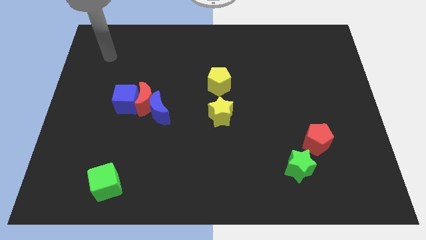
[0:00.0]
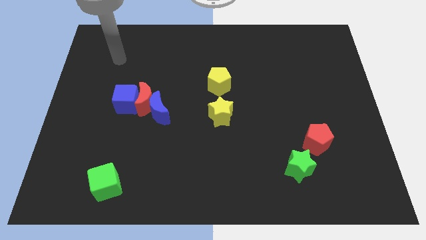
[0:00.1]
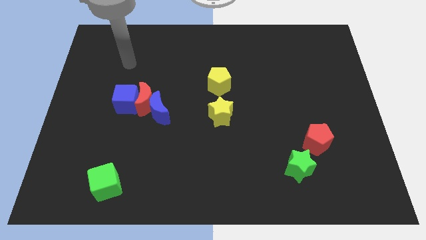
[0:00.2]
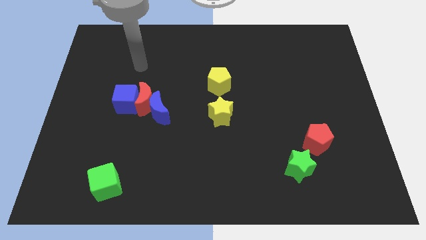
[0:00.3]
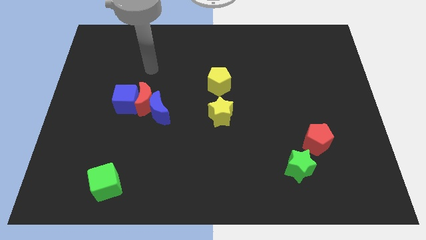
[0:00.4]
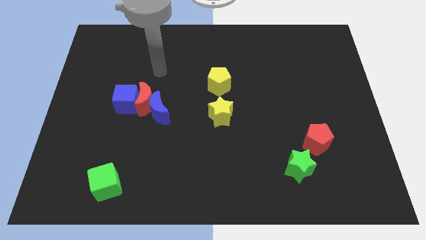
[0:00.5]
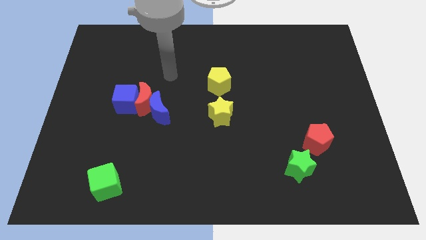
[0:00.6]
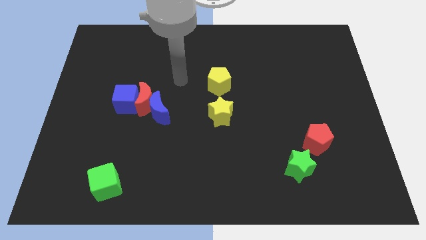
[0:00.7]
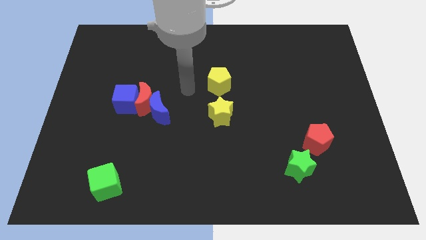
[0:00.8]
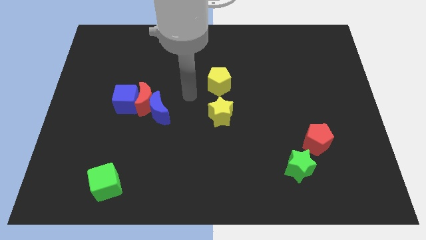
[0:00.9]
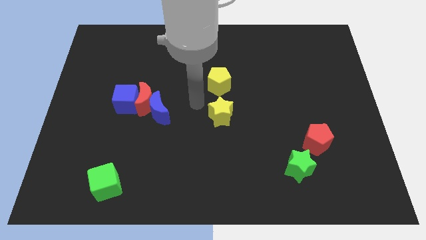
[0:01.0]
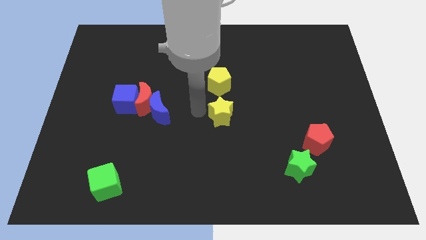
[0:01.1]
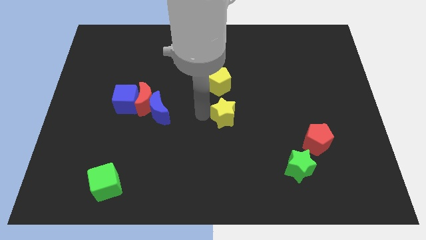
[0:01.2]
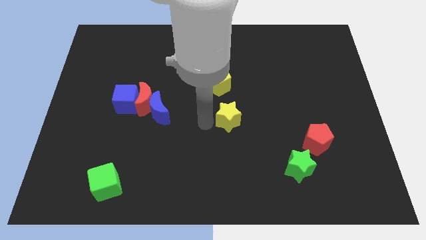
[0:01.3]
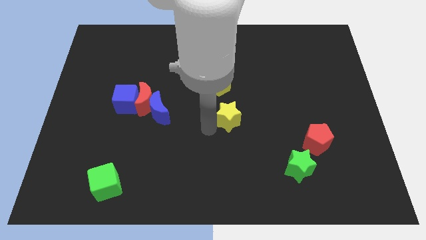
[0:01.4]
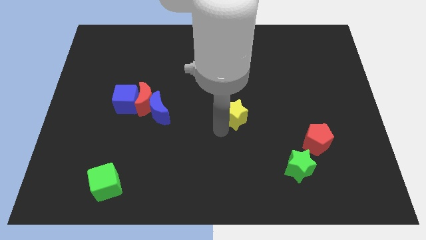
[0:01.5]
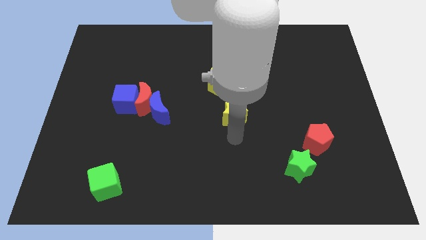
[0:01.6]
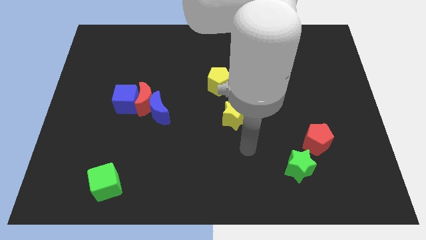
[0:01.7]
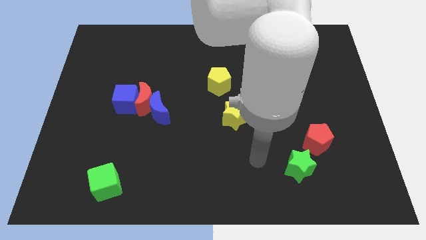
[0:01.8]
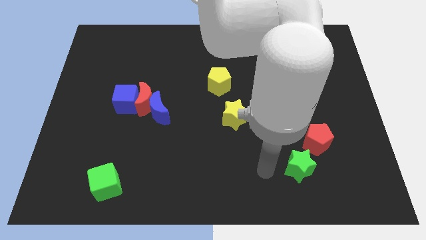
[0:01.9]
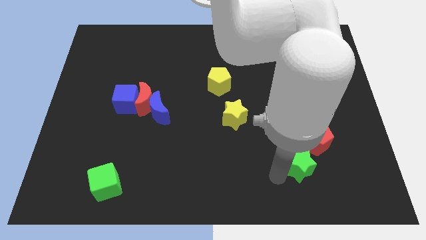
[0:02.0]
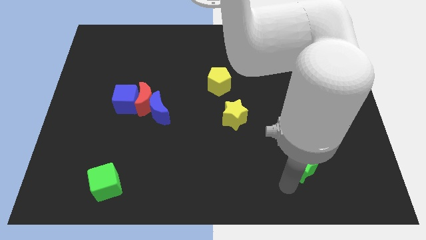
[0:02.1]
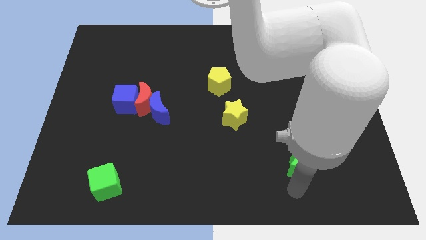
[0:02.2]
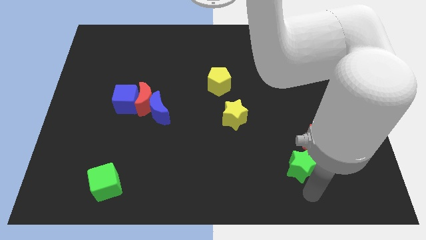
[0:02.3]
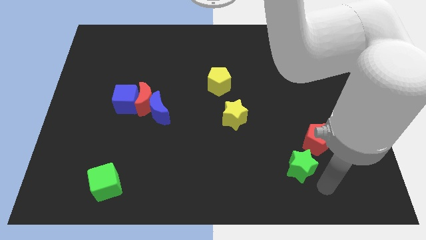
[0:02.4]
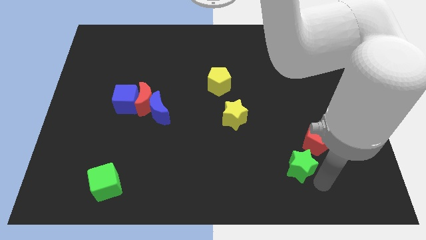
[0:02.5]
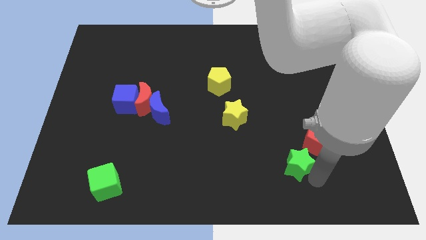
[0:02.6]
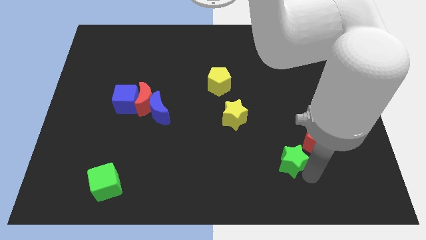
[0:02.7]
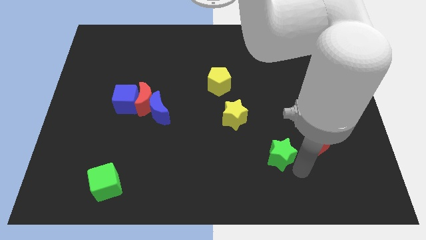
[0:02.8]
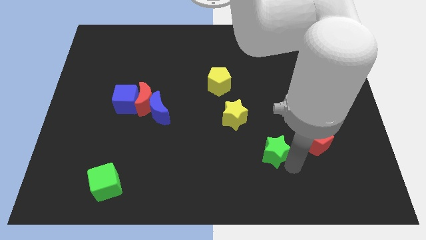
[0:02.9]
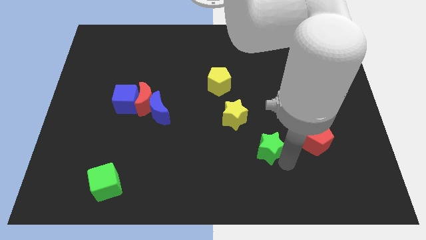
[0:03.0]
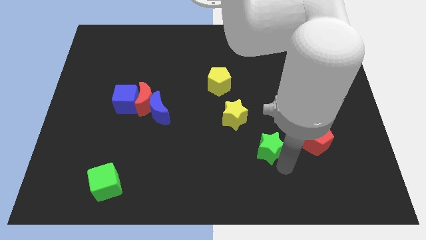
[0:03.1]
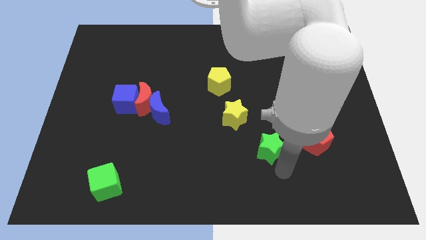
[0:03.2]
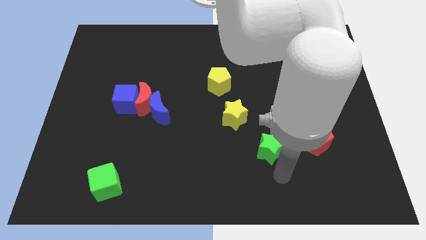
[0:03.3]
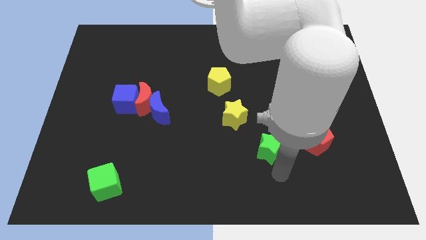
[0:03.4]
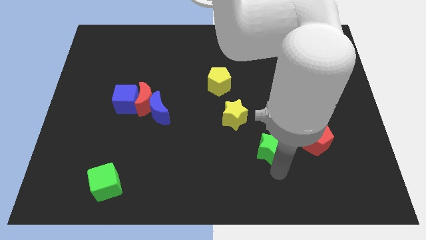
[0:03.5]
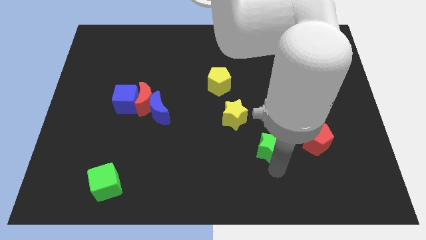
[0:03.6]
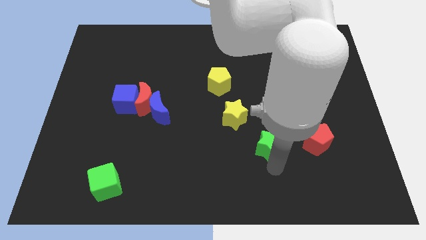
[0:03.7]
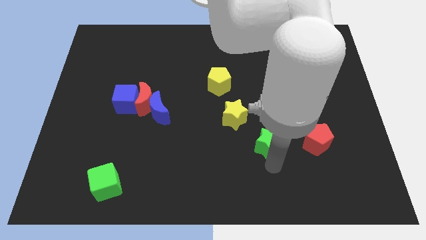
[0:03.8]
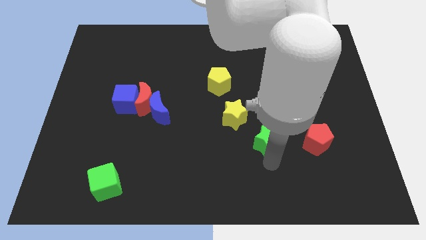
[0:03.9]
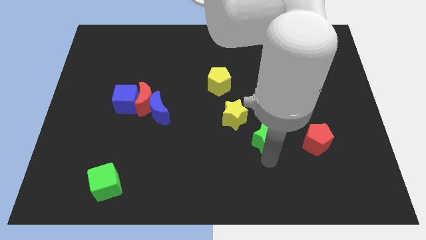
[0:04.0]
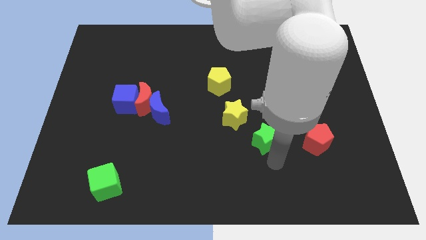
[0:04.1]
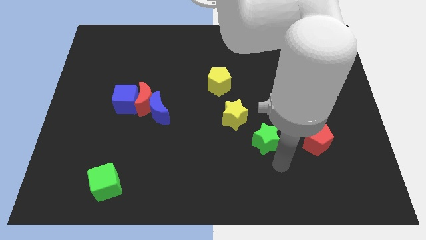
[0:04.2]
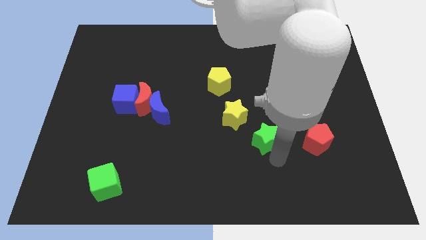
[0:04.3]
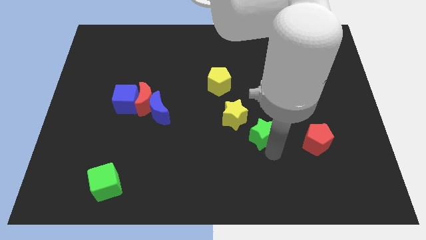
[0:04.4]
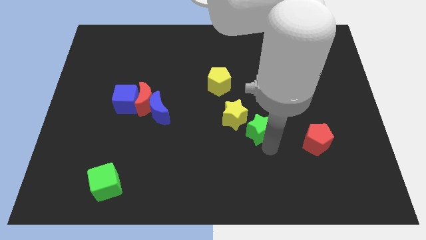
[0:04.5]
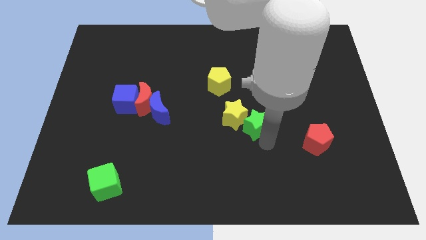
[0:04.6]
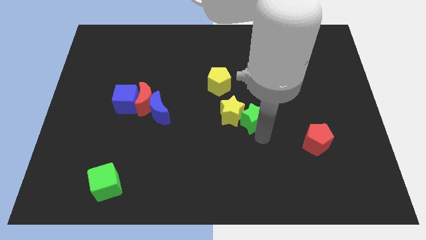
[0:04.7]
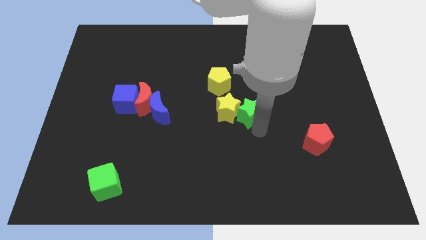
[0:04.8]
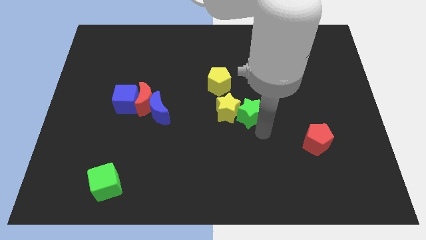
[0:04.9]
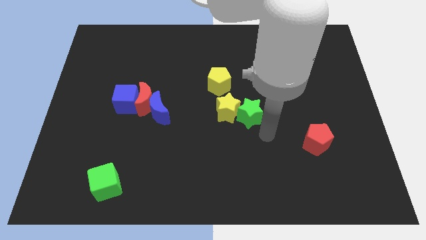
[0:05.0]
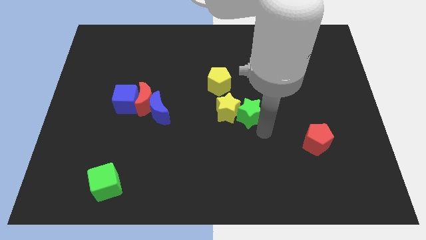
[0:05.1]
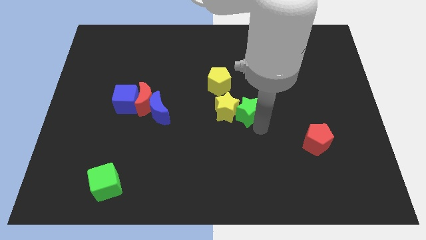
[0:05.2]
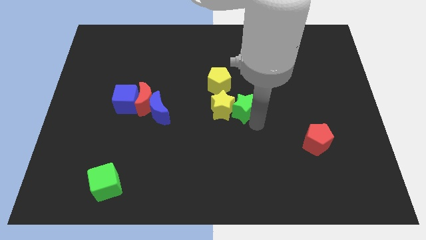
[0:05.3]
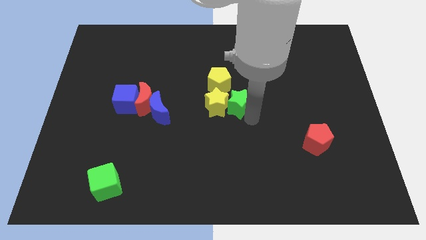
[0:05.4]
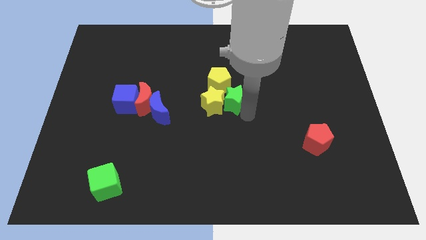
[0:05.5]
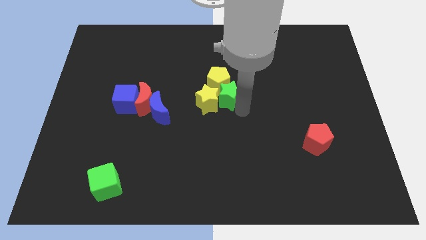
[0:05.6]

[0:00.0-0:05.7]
push the green star towards the yellow pentagon

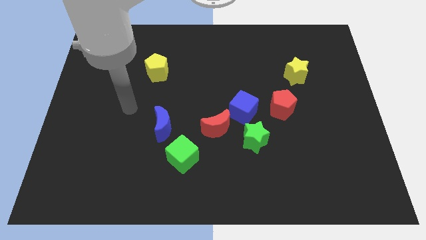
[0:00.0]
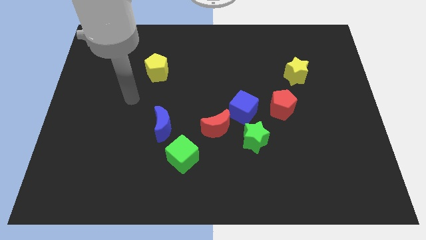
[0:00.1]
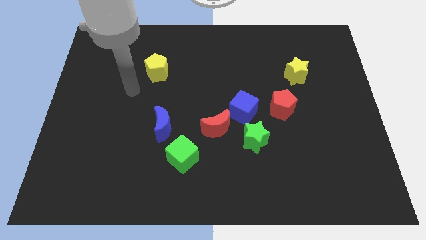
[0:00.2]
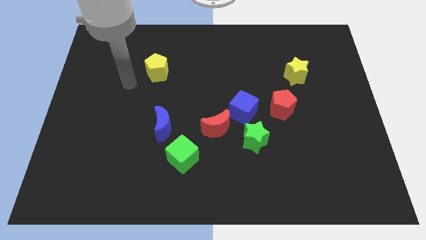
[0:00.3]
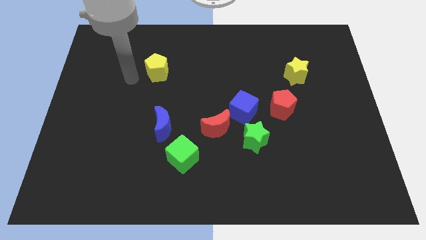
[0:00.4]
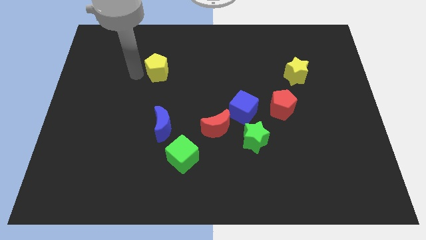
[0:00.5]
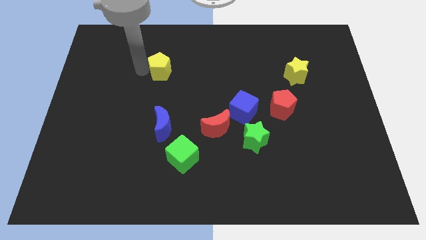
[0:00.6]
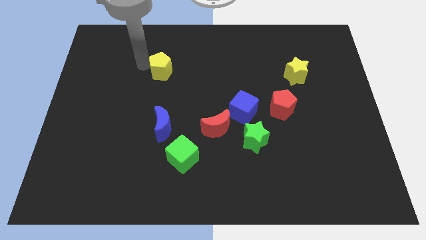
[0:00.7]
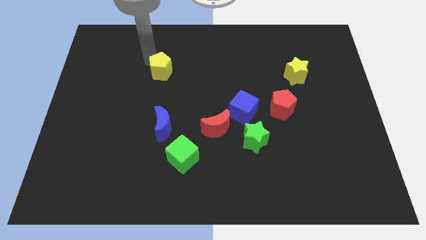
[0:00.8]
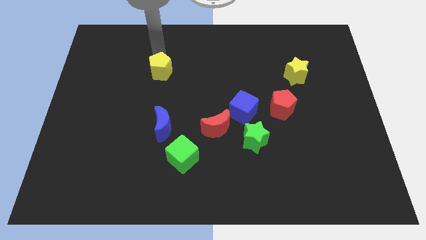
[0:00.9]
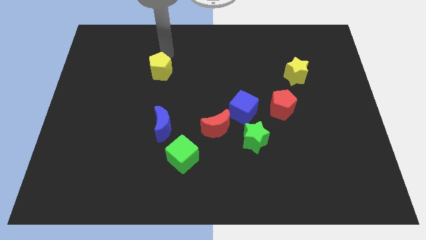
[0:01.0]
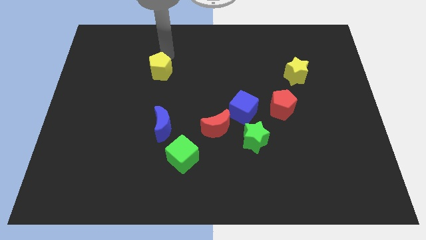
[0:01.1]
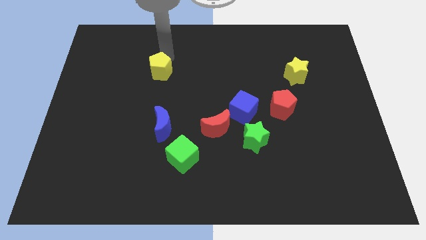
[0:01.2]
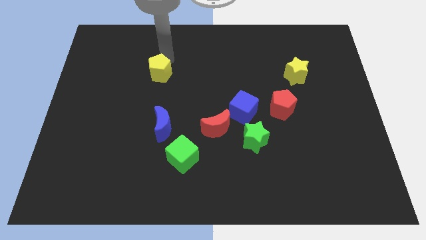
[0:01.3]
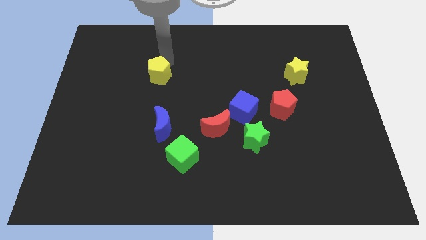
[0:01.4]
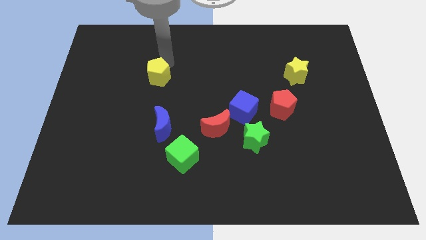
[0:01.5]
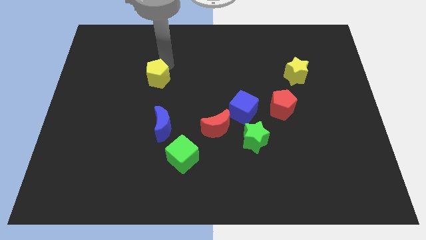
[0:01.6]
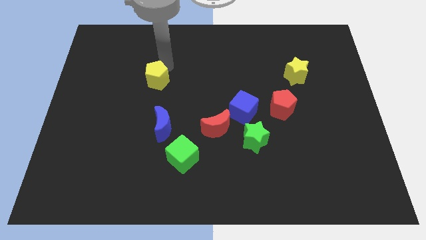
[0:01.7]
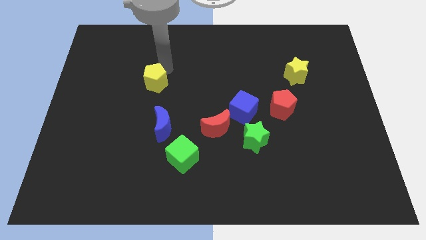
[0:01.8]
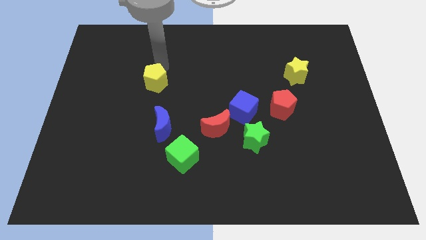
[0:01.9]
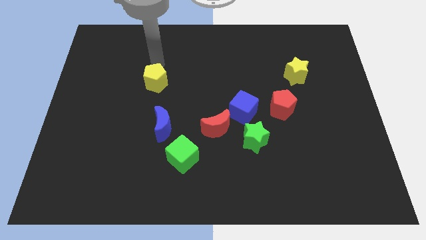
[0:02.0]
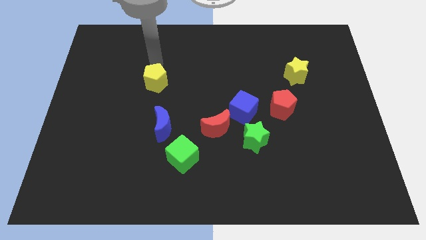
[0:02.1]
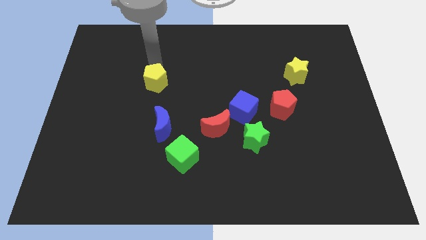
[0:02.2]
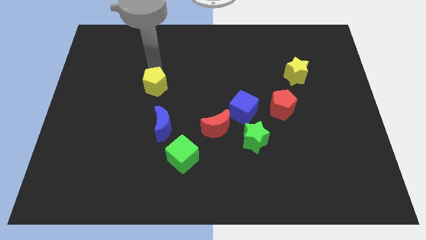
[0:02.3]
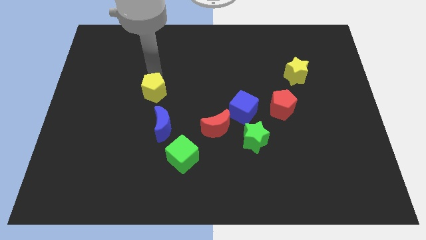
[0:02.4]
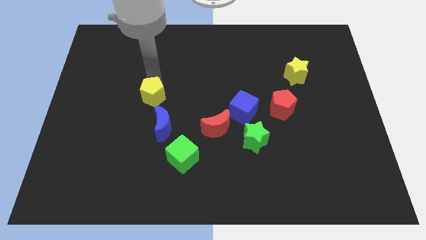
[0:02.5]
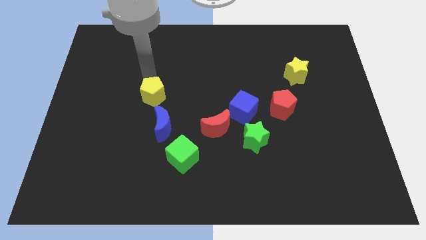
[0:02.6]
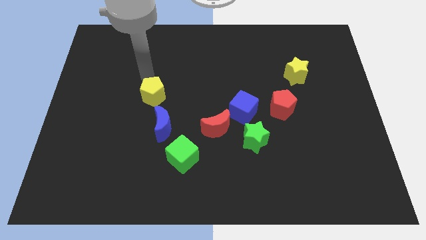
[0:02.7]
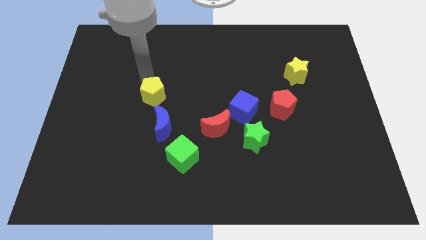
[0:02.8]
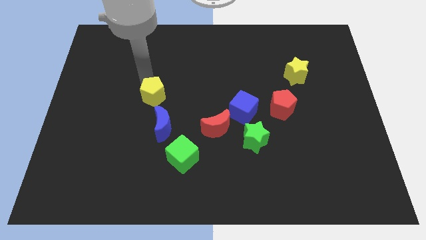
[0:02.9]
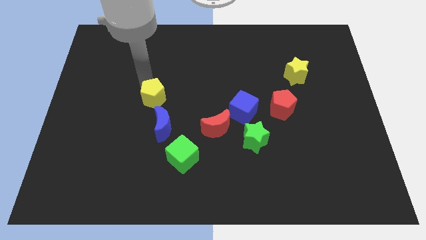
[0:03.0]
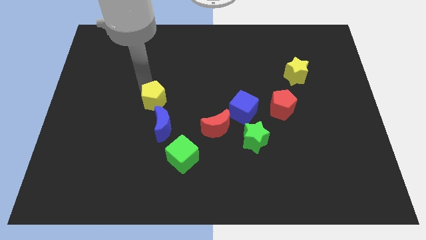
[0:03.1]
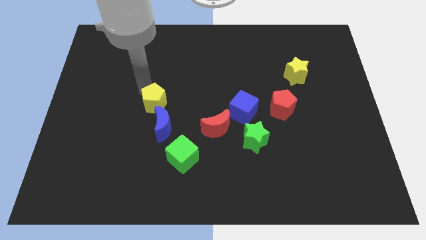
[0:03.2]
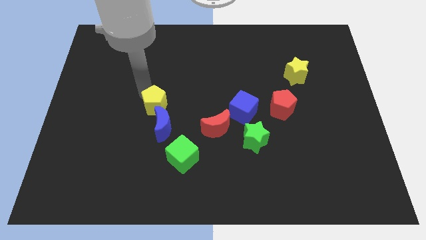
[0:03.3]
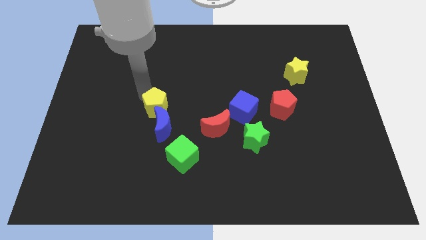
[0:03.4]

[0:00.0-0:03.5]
push the yellow pentagon to the blue moon
